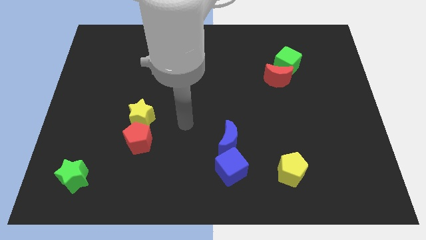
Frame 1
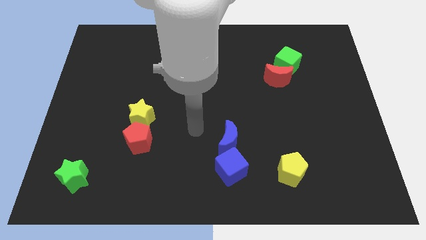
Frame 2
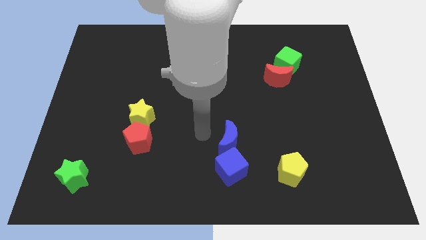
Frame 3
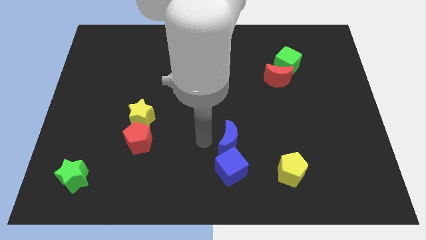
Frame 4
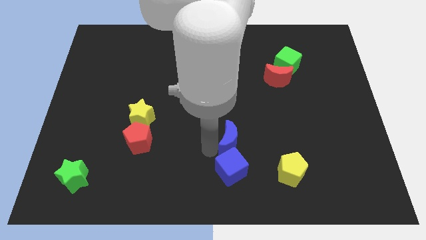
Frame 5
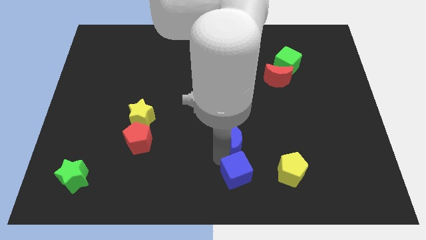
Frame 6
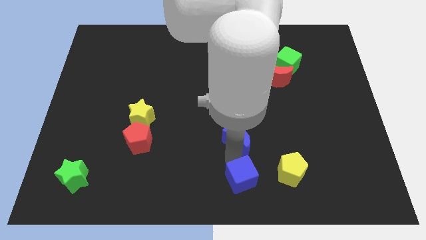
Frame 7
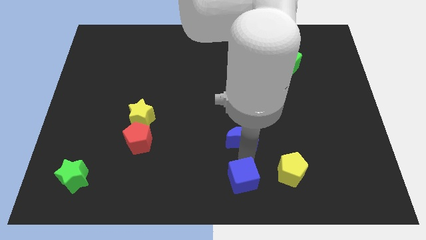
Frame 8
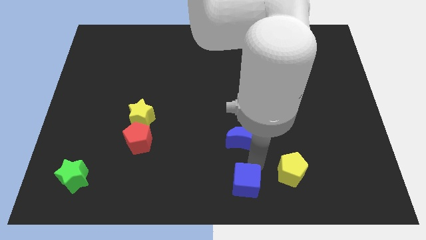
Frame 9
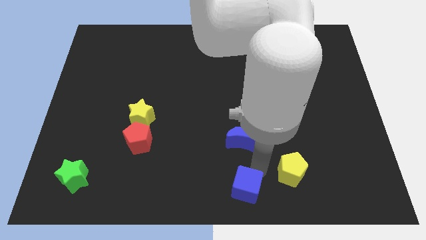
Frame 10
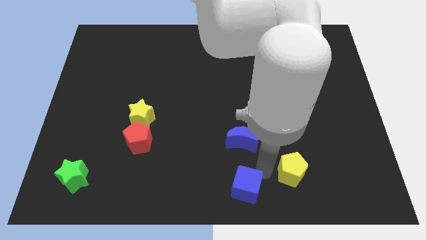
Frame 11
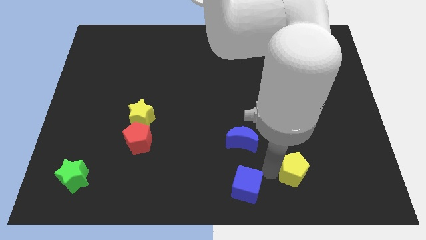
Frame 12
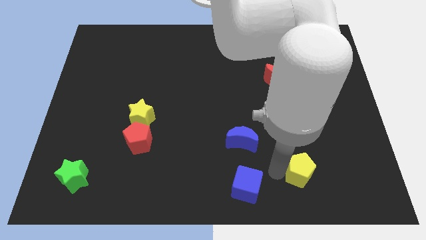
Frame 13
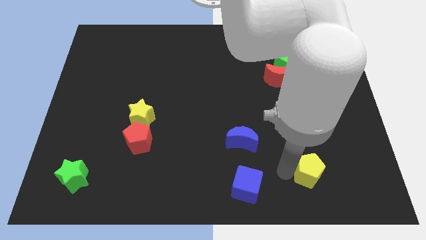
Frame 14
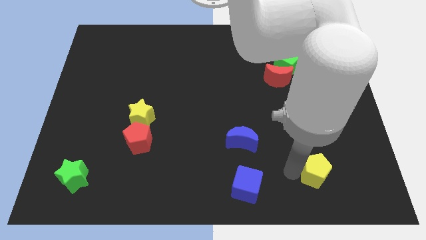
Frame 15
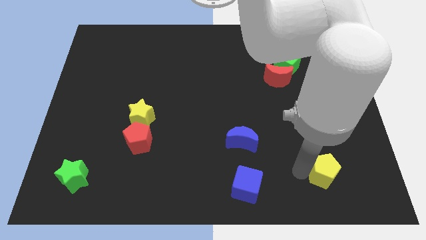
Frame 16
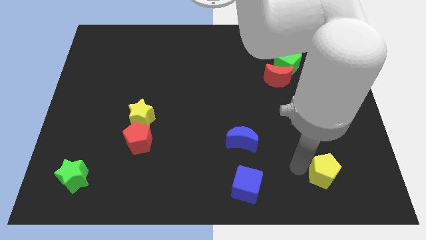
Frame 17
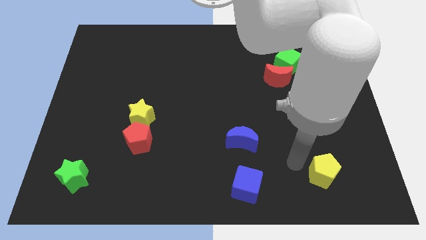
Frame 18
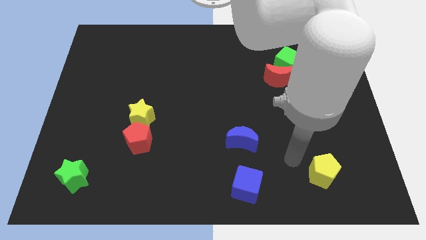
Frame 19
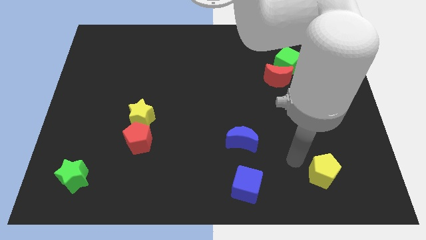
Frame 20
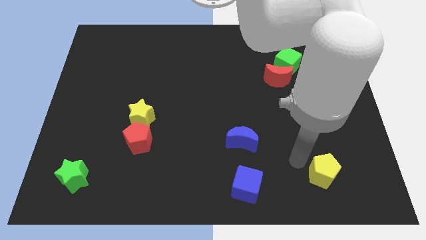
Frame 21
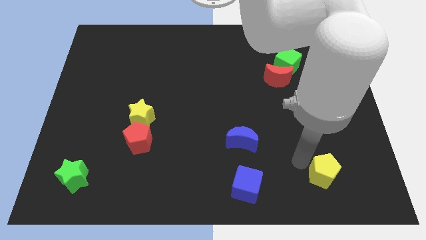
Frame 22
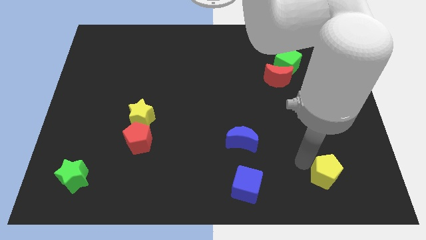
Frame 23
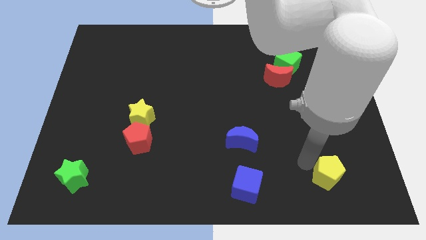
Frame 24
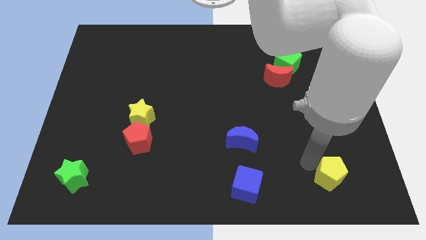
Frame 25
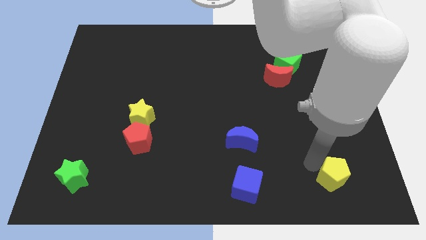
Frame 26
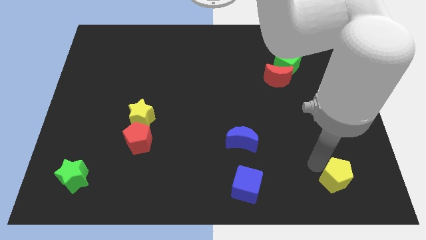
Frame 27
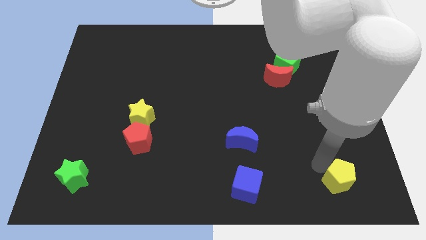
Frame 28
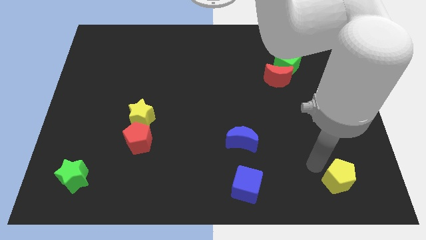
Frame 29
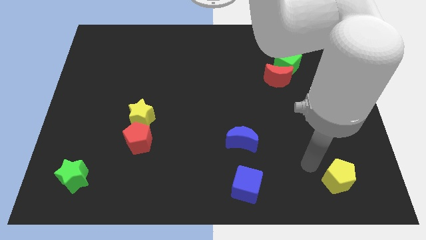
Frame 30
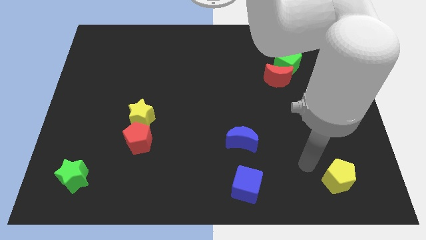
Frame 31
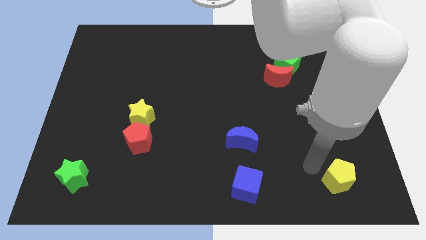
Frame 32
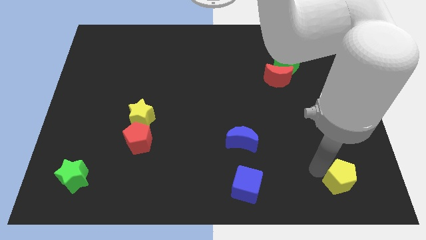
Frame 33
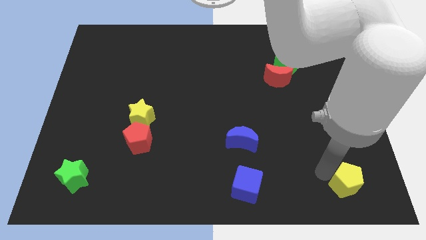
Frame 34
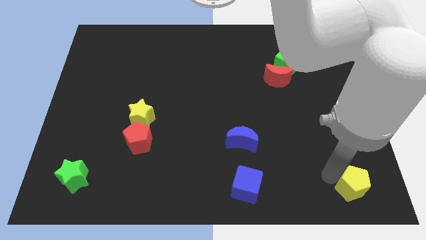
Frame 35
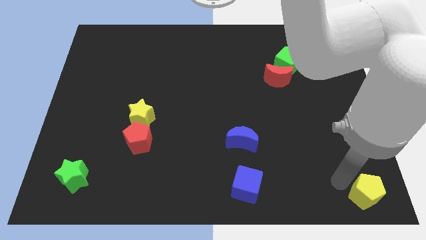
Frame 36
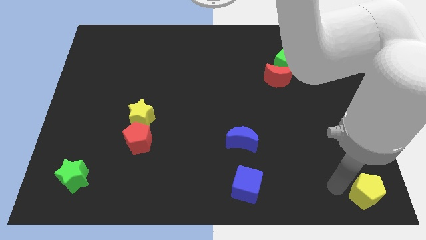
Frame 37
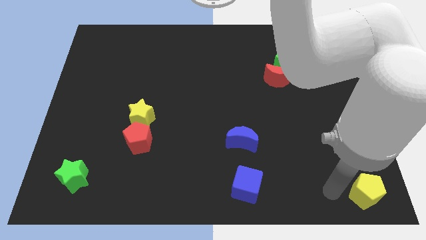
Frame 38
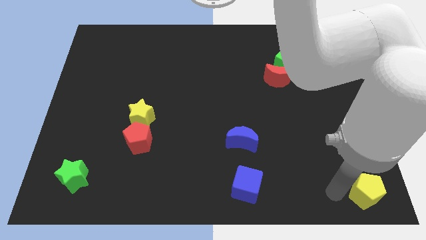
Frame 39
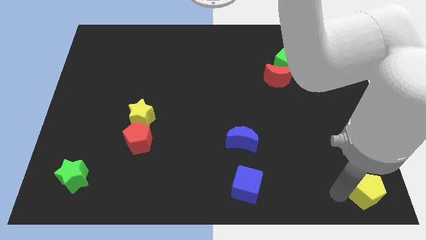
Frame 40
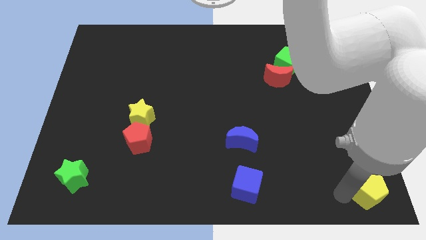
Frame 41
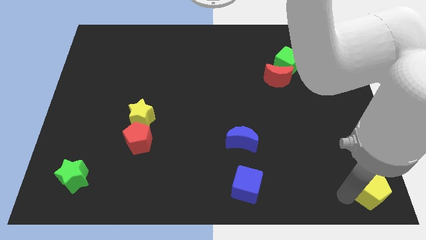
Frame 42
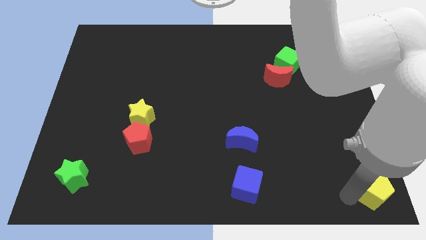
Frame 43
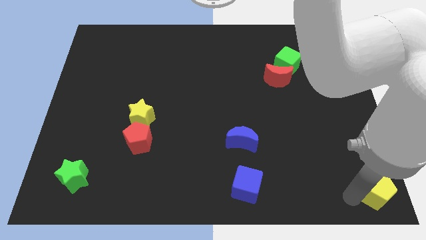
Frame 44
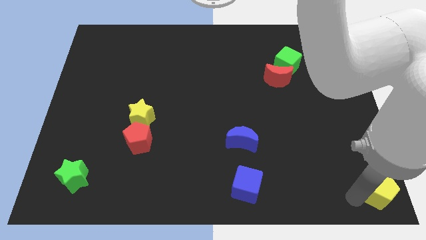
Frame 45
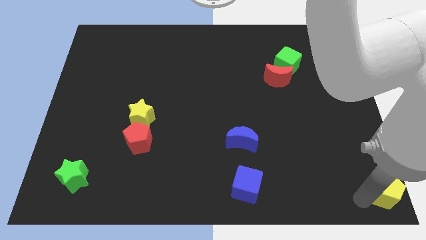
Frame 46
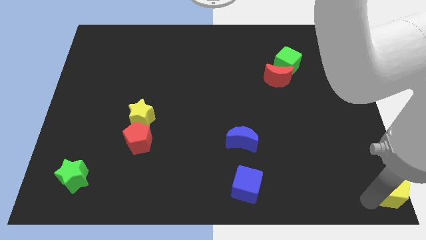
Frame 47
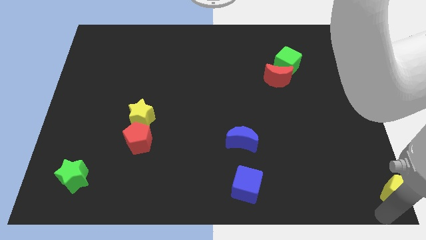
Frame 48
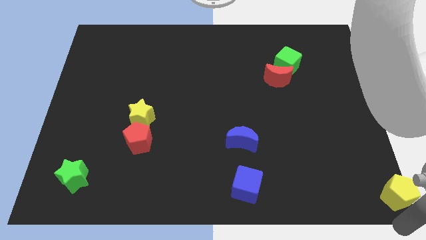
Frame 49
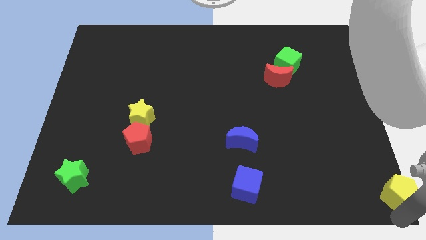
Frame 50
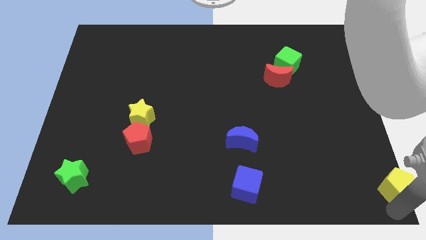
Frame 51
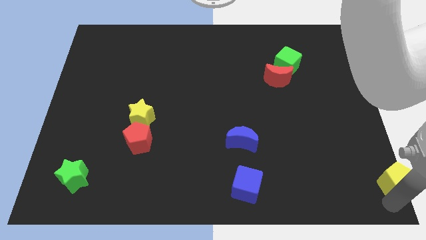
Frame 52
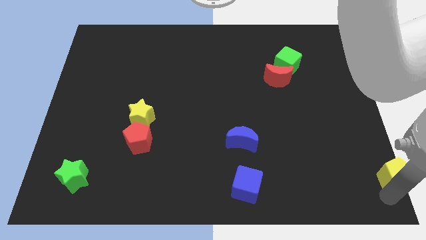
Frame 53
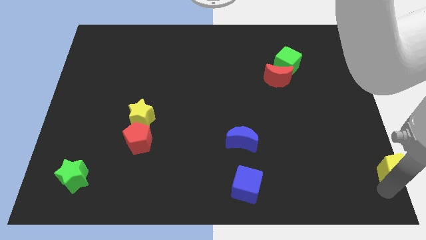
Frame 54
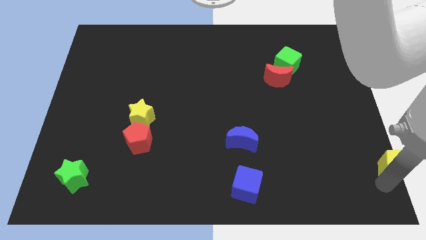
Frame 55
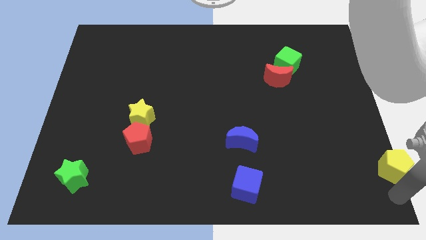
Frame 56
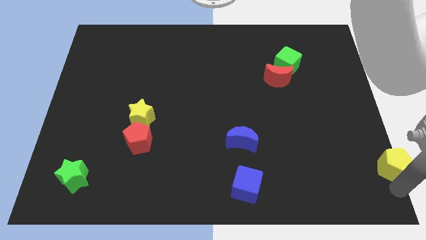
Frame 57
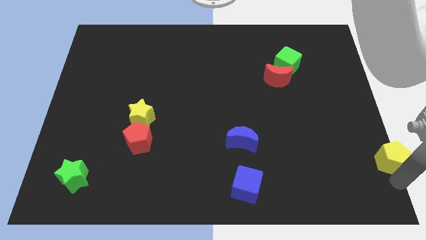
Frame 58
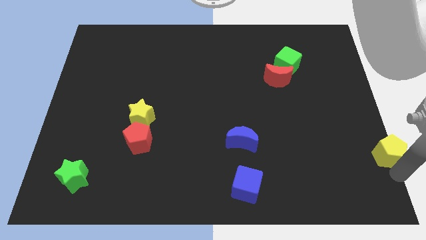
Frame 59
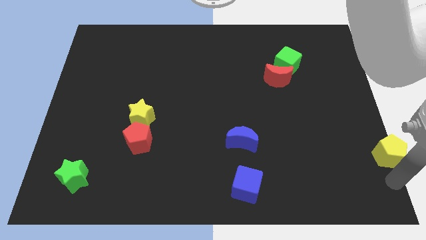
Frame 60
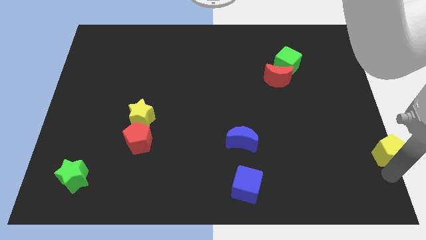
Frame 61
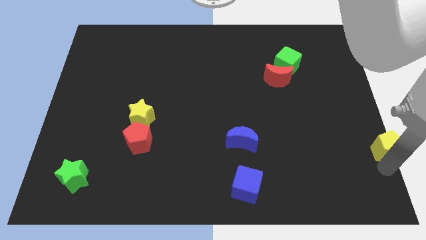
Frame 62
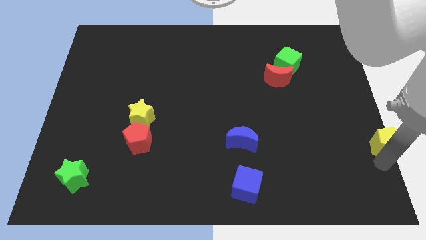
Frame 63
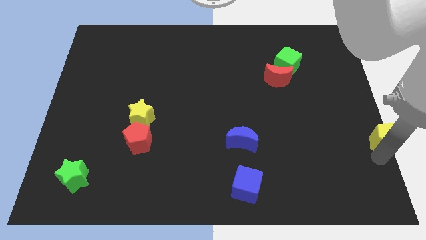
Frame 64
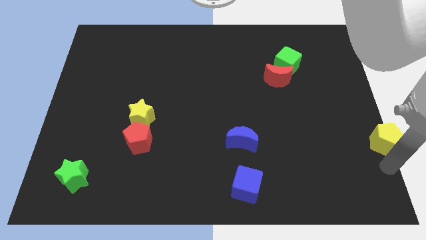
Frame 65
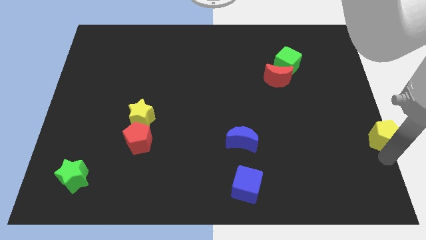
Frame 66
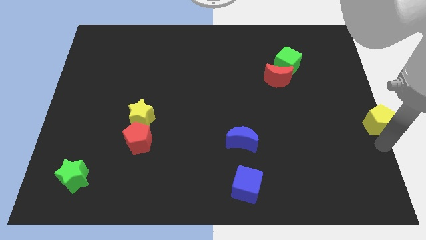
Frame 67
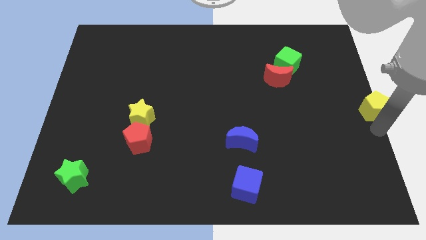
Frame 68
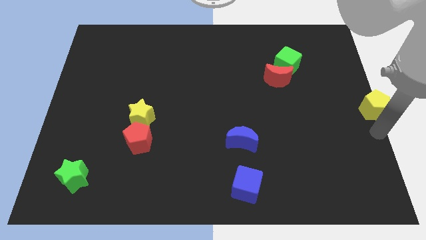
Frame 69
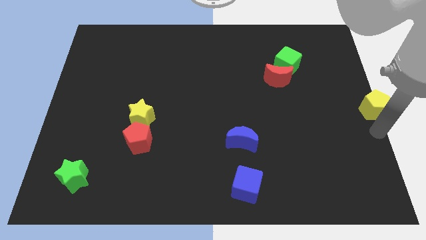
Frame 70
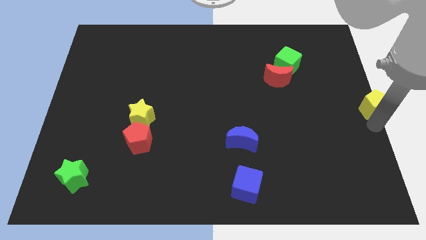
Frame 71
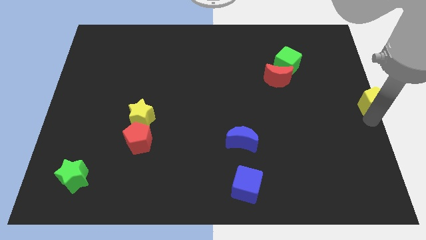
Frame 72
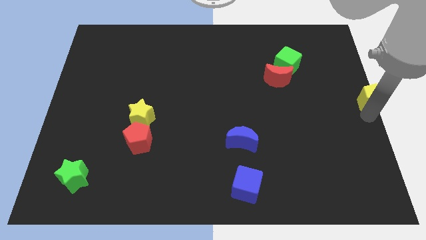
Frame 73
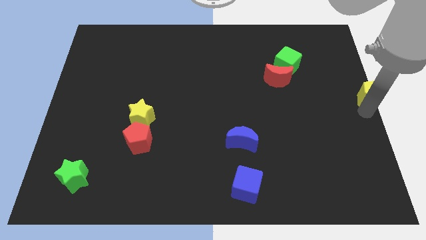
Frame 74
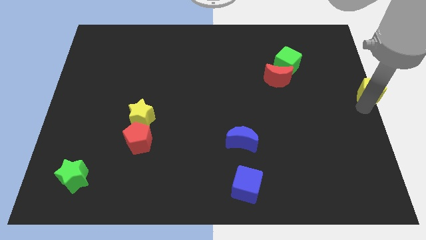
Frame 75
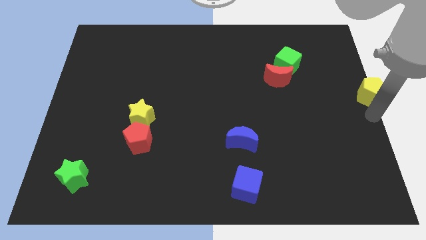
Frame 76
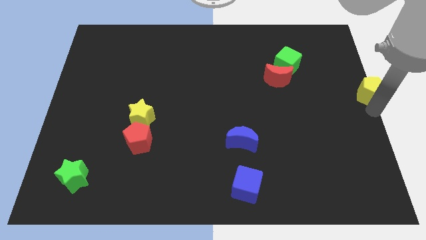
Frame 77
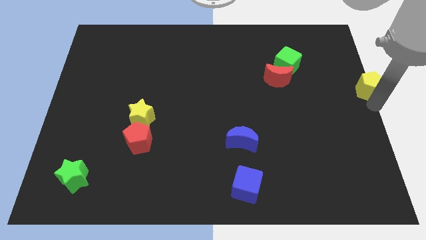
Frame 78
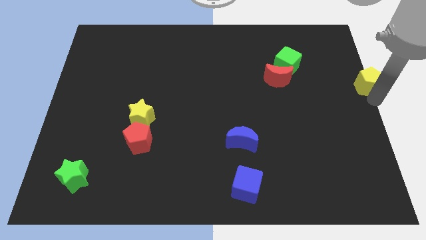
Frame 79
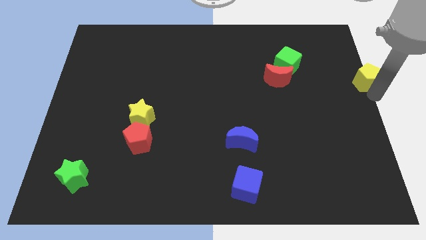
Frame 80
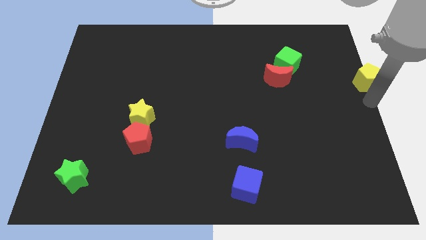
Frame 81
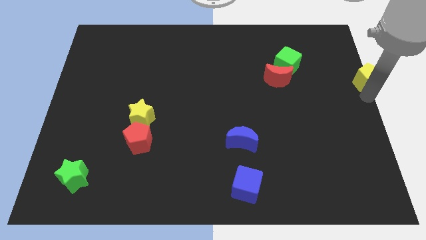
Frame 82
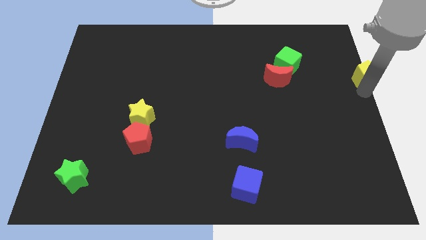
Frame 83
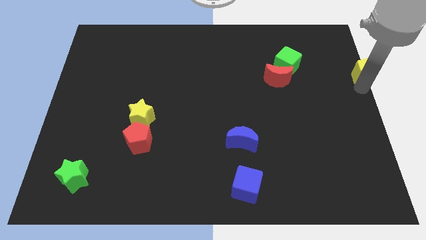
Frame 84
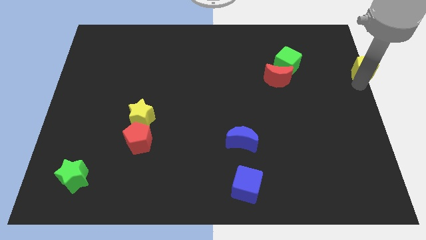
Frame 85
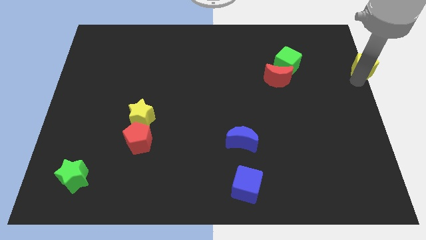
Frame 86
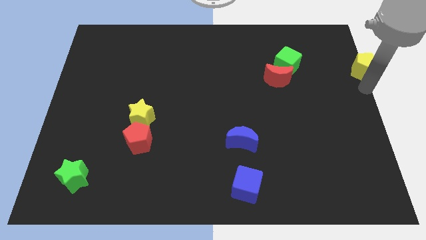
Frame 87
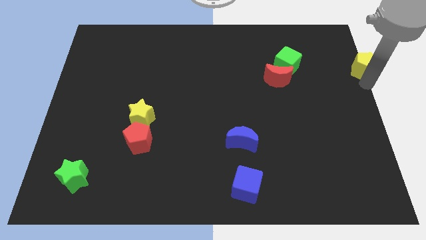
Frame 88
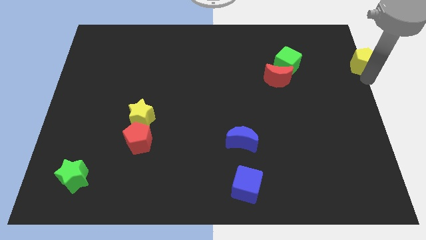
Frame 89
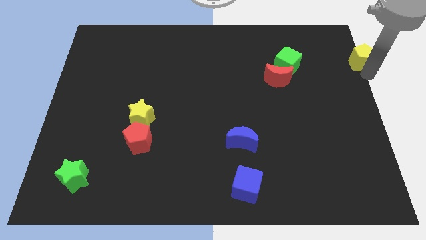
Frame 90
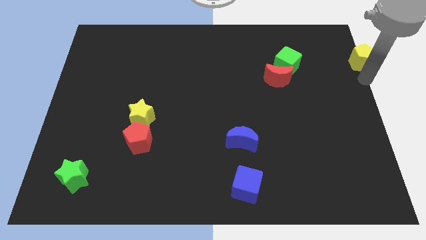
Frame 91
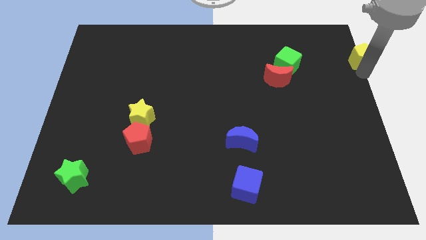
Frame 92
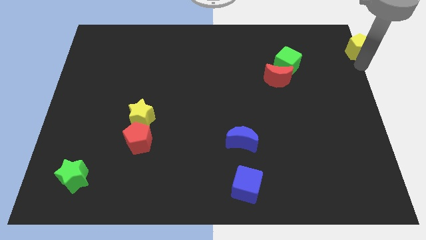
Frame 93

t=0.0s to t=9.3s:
push the yellow pentagon to the top right corner
